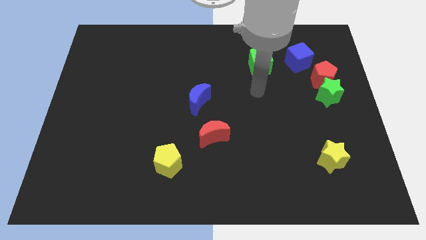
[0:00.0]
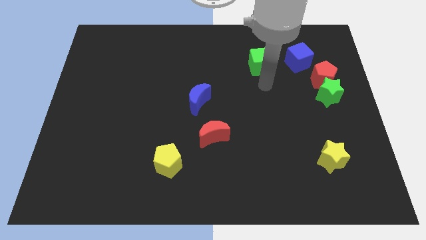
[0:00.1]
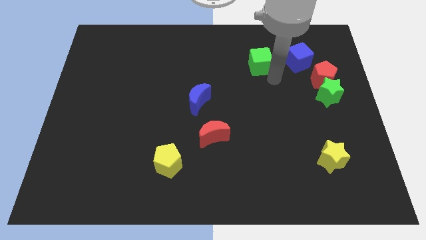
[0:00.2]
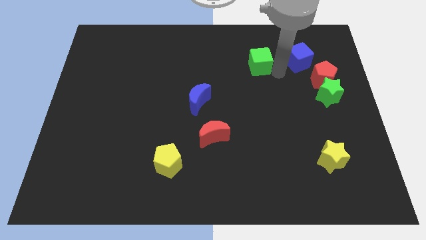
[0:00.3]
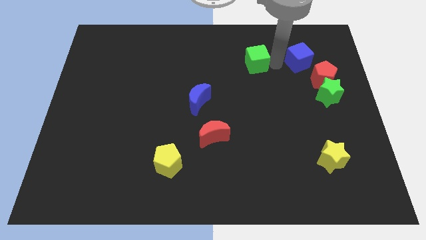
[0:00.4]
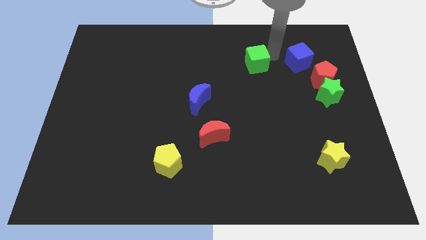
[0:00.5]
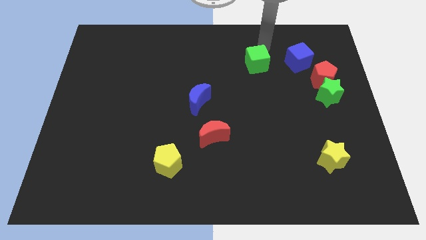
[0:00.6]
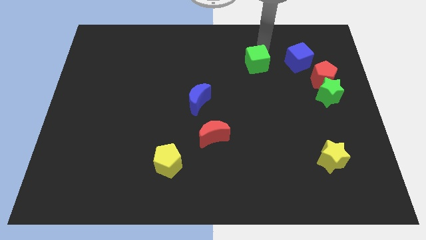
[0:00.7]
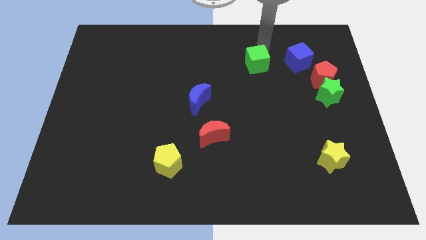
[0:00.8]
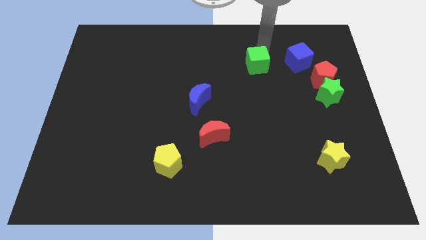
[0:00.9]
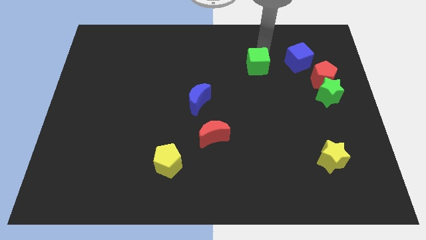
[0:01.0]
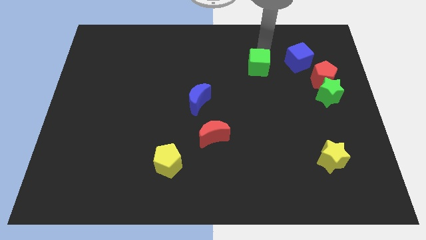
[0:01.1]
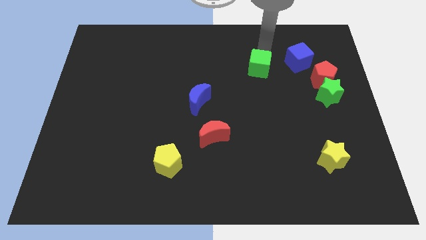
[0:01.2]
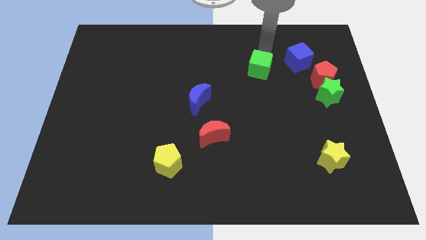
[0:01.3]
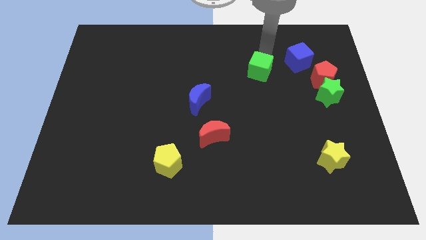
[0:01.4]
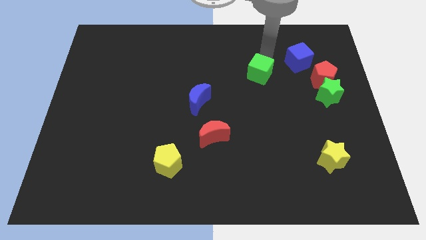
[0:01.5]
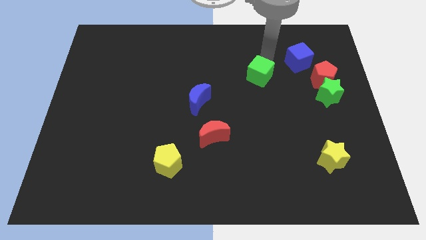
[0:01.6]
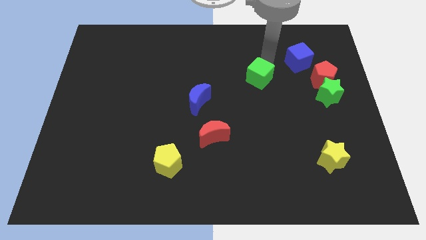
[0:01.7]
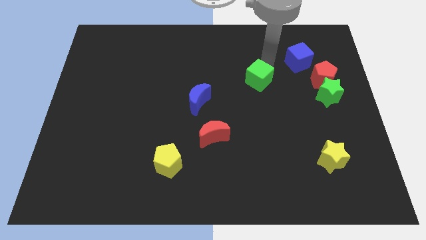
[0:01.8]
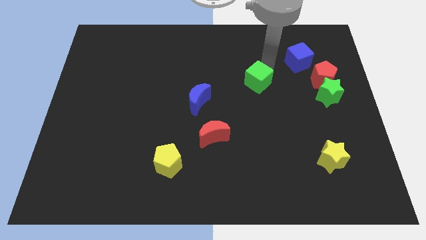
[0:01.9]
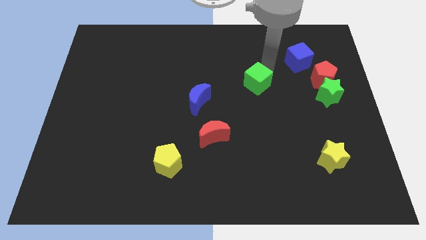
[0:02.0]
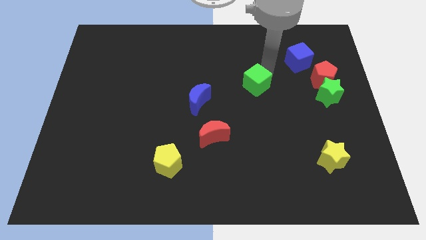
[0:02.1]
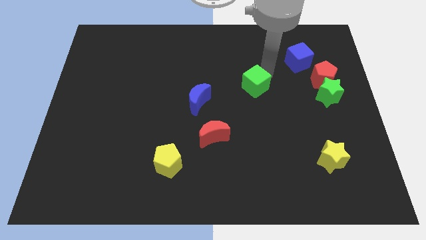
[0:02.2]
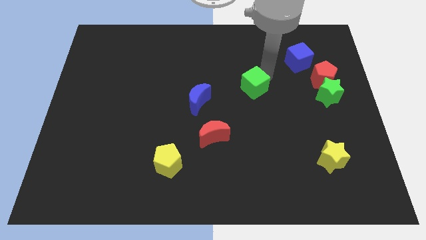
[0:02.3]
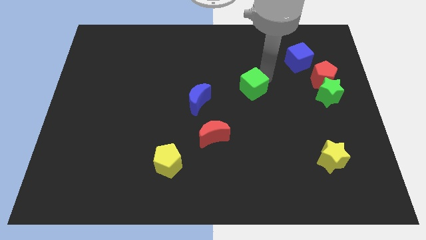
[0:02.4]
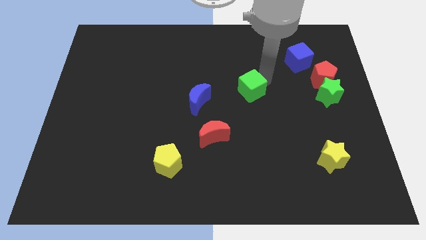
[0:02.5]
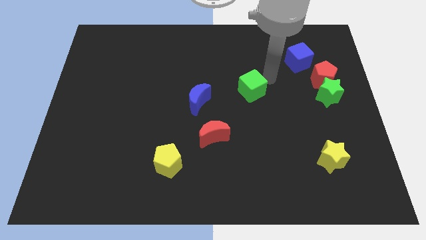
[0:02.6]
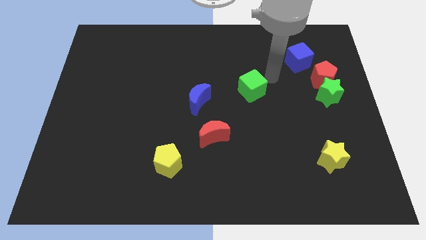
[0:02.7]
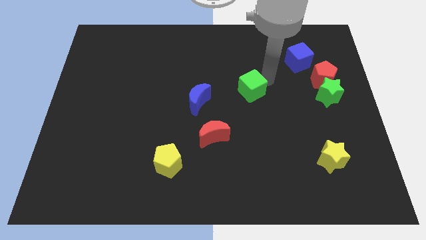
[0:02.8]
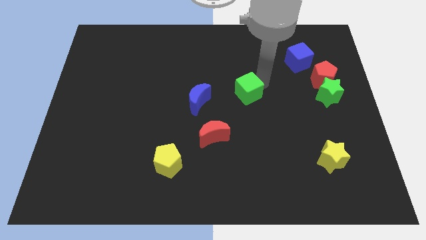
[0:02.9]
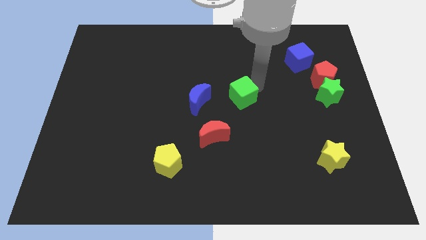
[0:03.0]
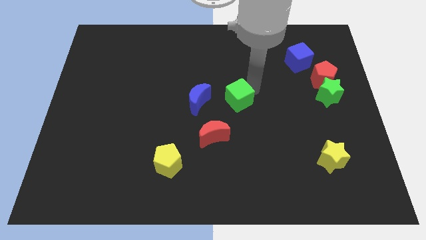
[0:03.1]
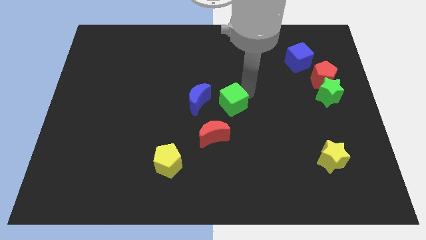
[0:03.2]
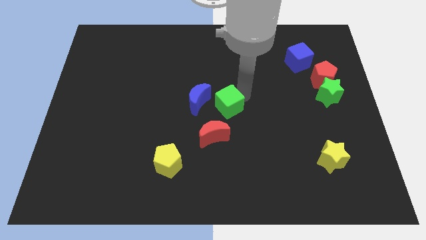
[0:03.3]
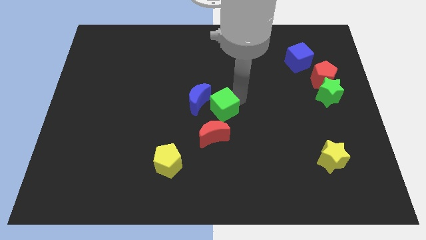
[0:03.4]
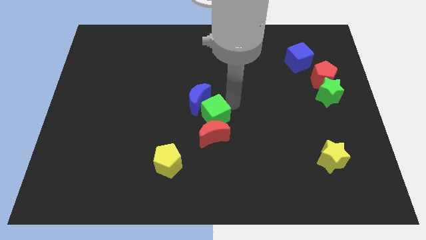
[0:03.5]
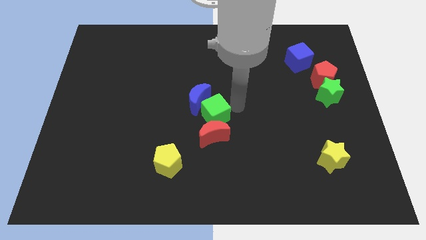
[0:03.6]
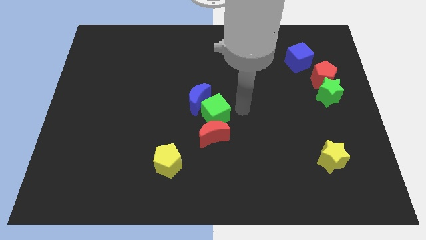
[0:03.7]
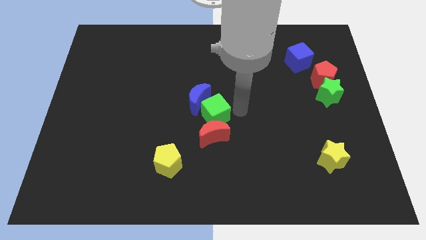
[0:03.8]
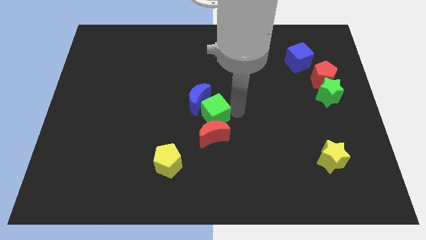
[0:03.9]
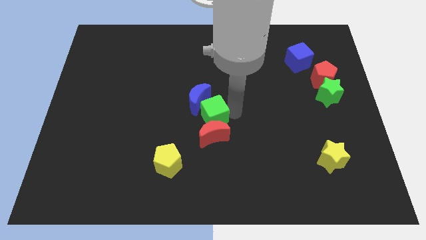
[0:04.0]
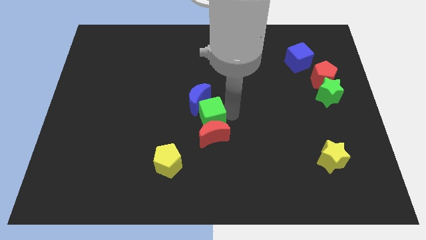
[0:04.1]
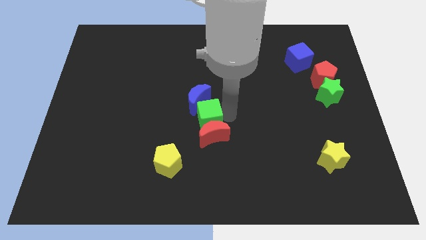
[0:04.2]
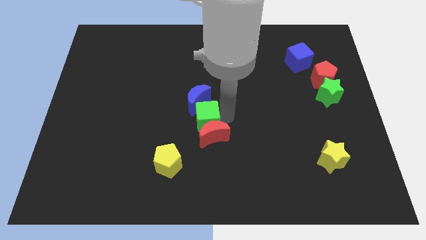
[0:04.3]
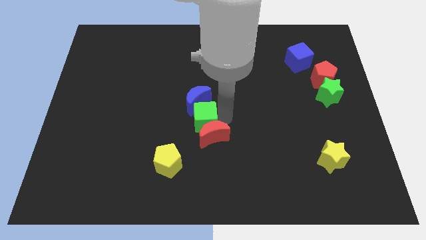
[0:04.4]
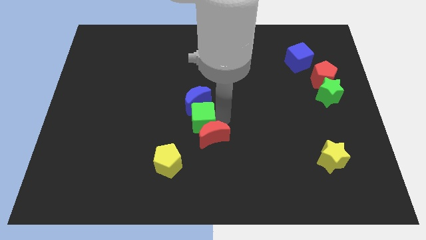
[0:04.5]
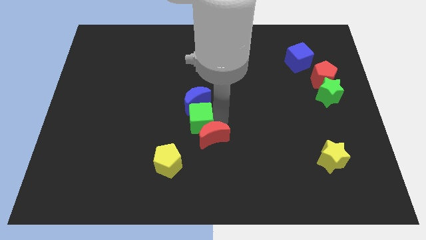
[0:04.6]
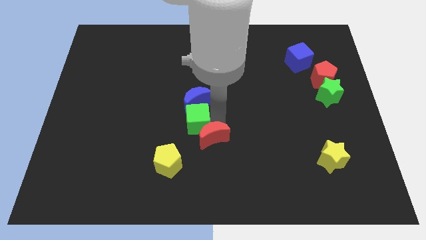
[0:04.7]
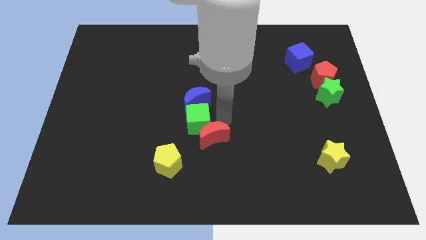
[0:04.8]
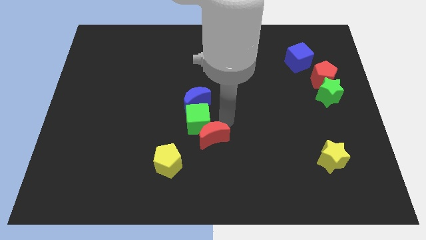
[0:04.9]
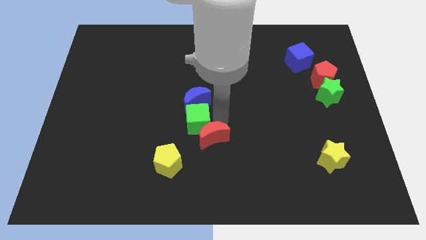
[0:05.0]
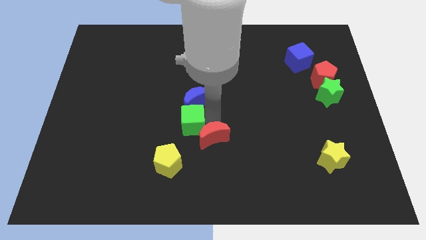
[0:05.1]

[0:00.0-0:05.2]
push the green cube to the top of the yellow pentagon
